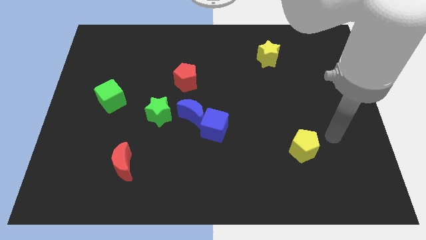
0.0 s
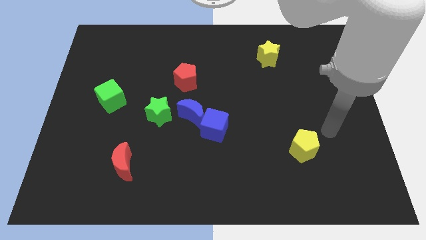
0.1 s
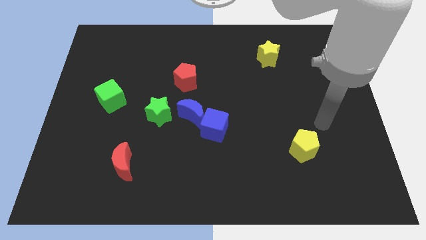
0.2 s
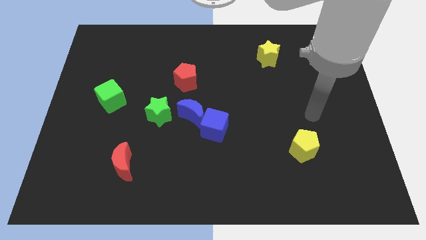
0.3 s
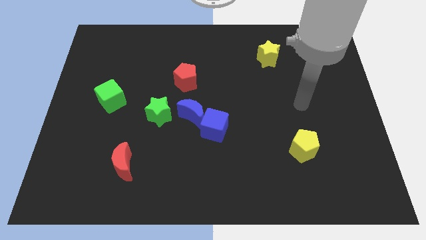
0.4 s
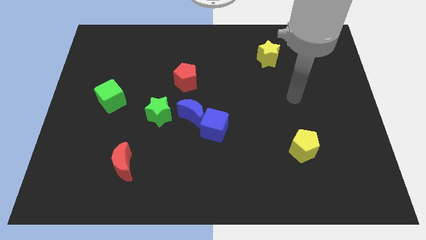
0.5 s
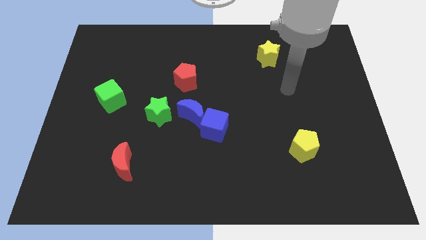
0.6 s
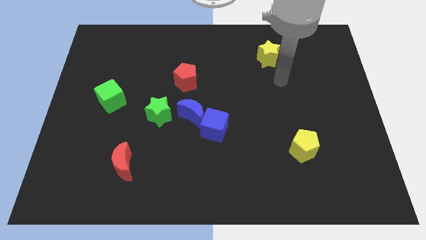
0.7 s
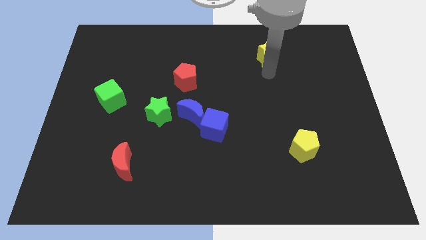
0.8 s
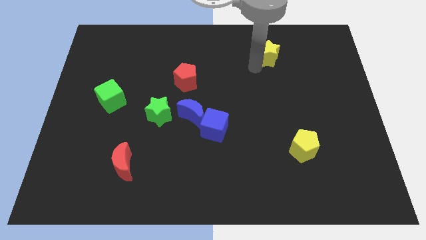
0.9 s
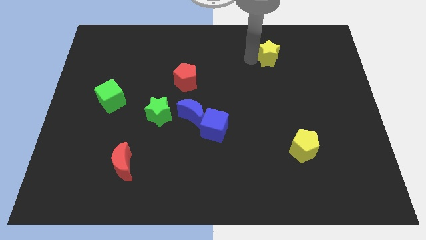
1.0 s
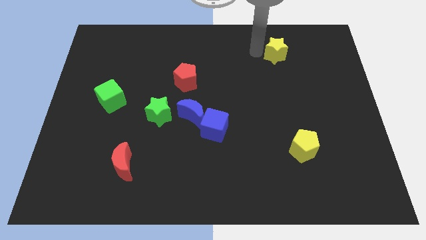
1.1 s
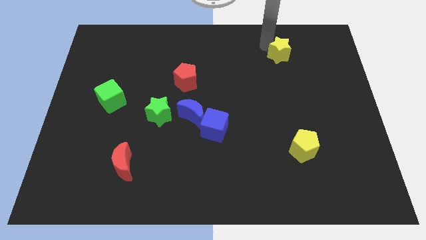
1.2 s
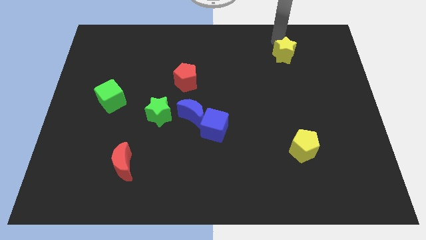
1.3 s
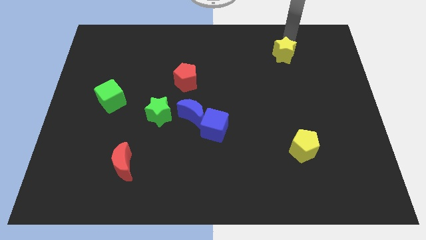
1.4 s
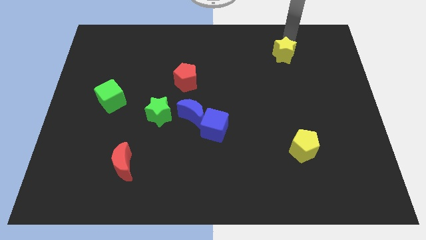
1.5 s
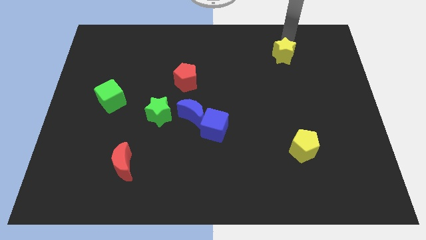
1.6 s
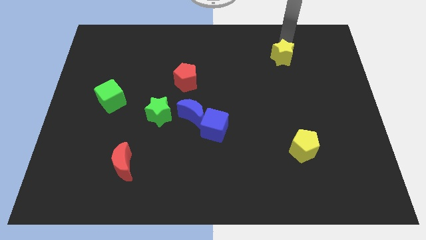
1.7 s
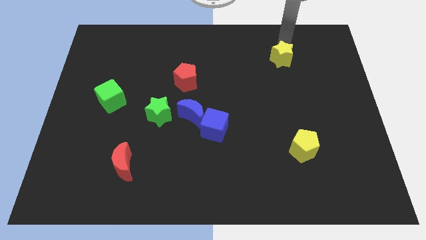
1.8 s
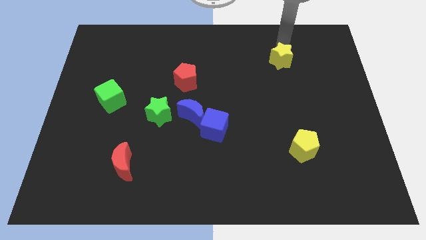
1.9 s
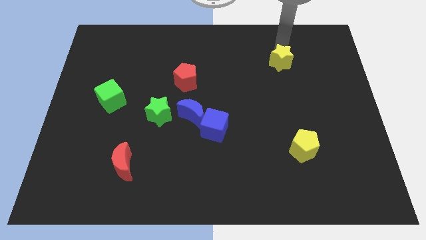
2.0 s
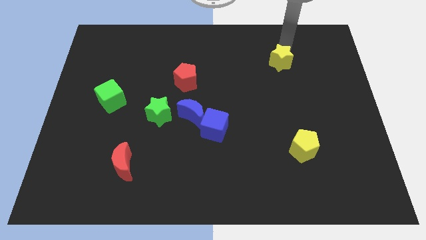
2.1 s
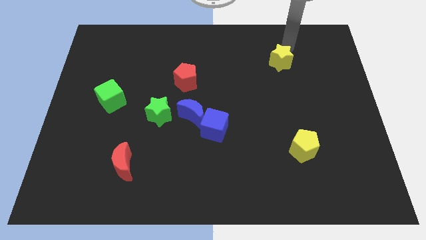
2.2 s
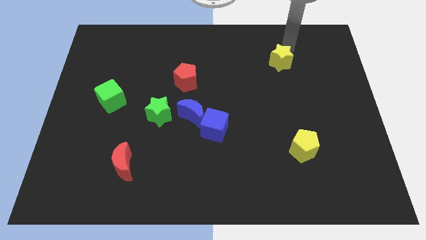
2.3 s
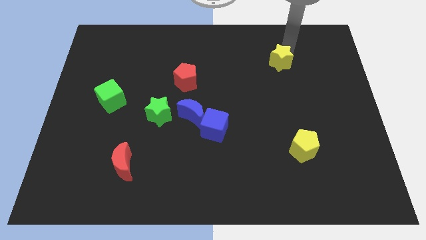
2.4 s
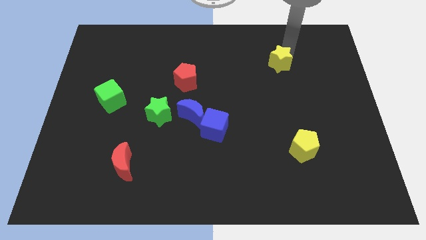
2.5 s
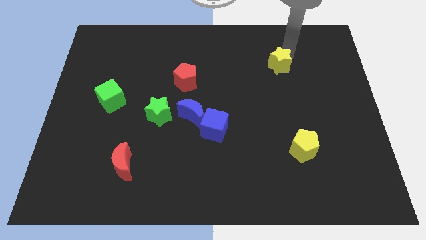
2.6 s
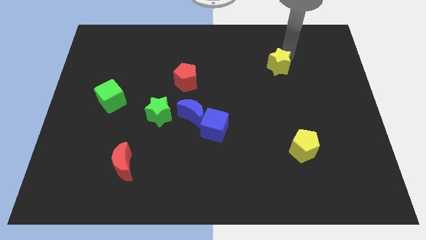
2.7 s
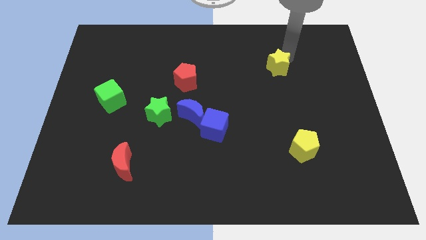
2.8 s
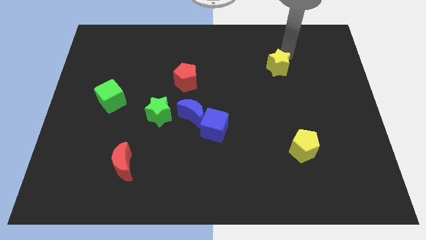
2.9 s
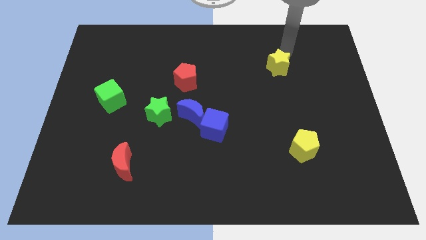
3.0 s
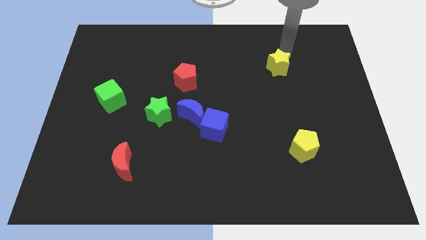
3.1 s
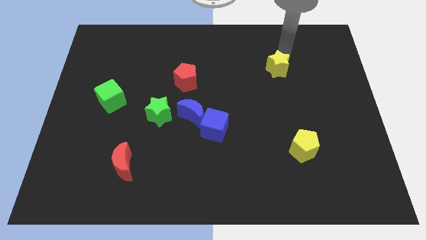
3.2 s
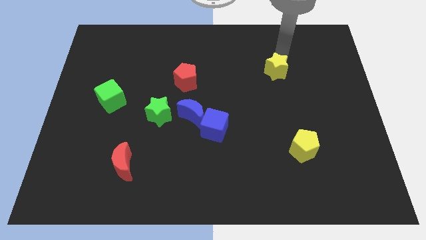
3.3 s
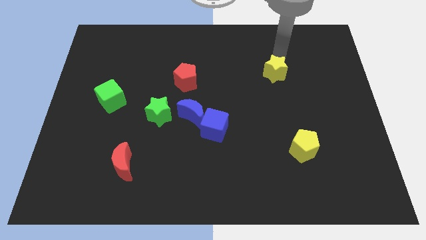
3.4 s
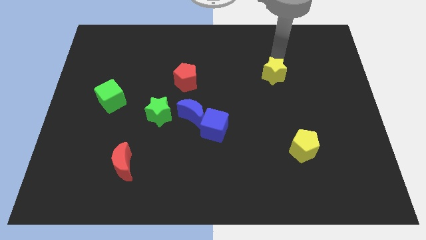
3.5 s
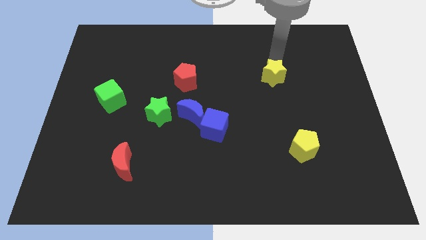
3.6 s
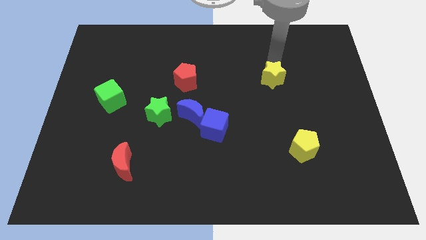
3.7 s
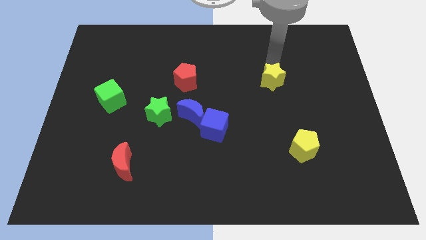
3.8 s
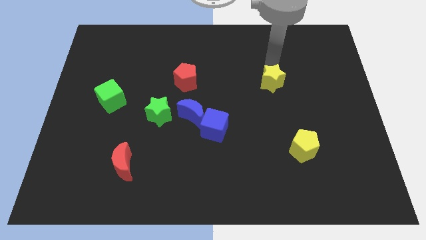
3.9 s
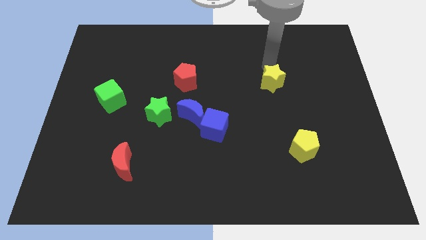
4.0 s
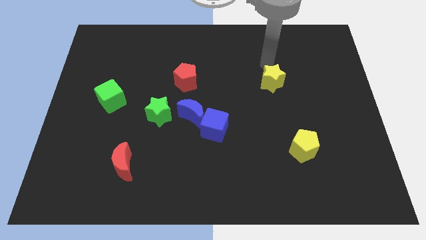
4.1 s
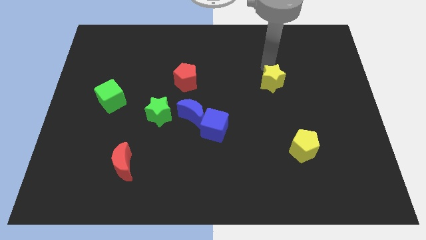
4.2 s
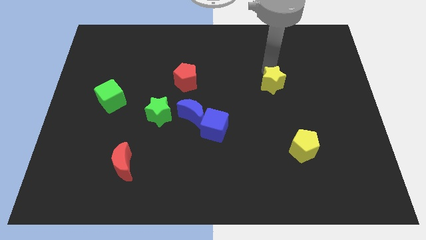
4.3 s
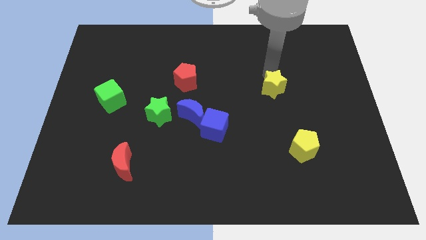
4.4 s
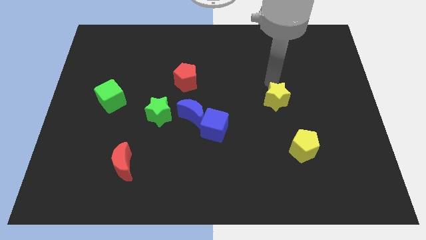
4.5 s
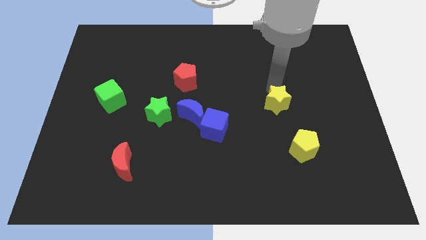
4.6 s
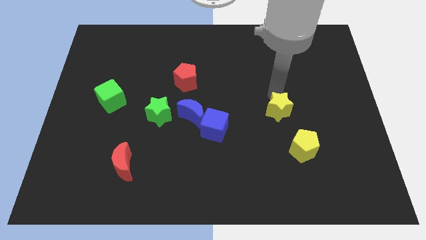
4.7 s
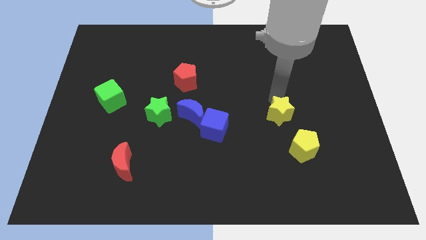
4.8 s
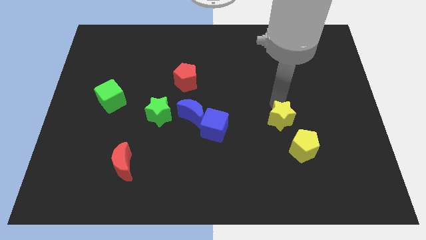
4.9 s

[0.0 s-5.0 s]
push the yellow star down

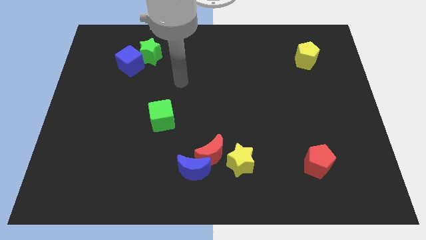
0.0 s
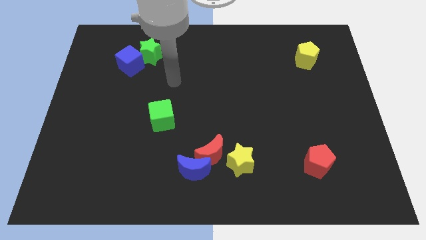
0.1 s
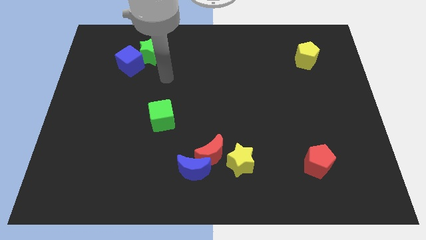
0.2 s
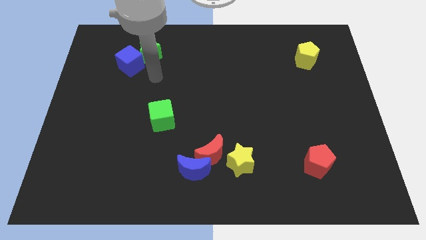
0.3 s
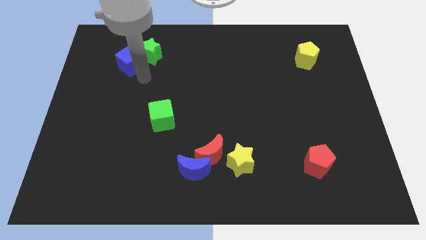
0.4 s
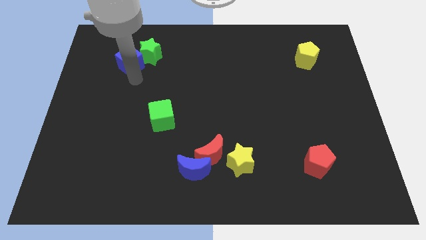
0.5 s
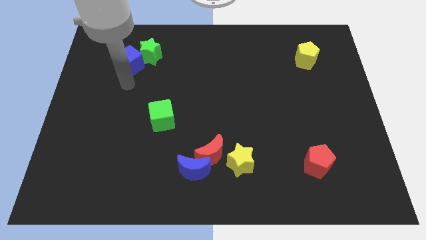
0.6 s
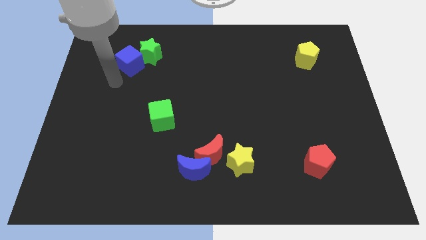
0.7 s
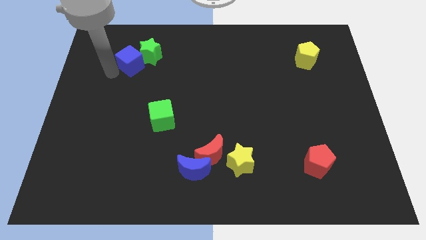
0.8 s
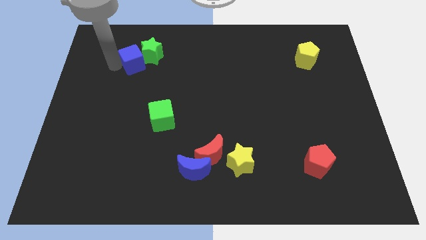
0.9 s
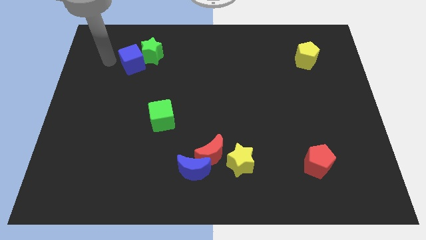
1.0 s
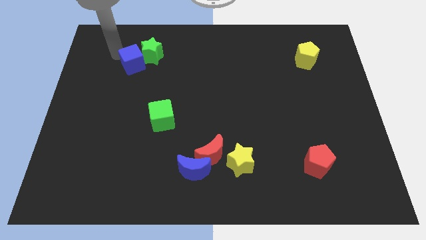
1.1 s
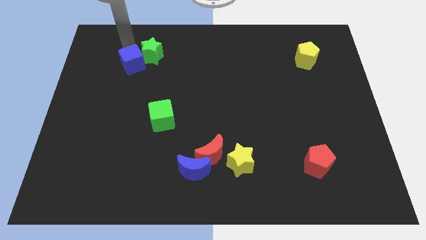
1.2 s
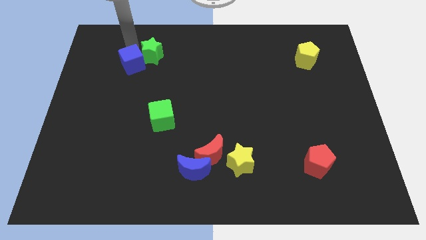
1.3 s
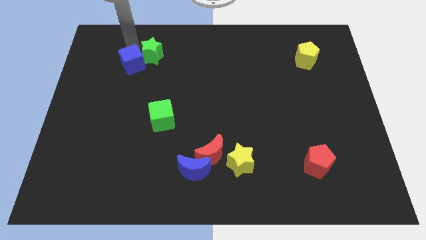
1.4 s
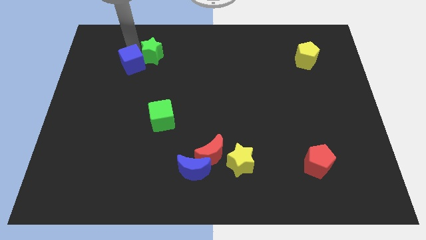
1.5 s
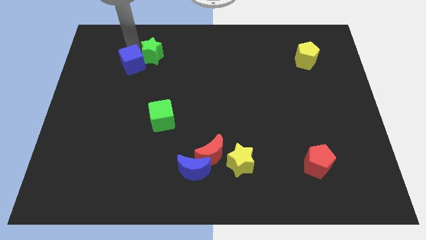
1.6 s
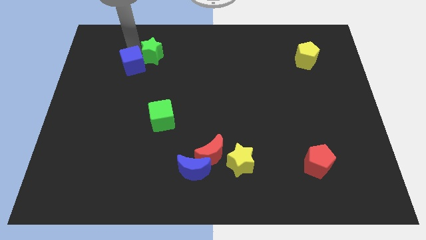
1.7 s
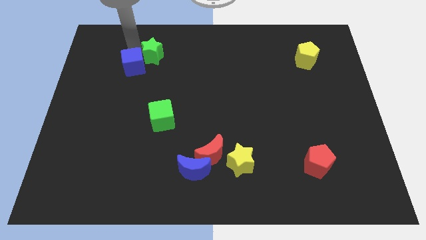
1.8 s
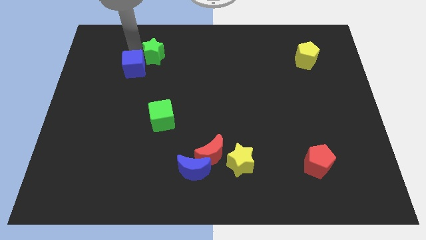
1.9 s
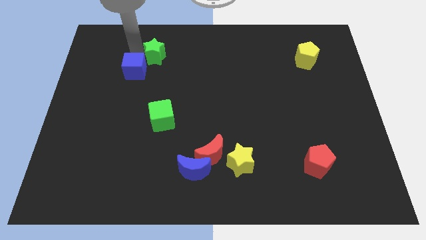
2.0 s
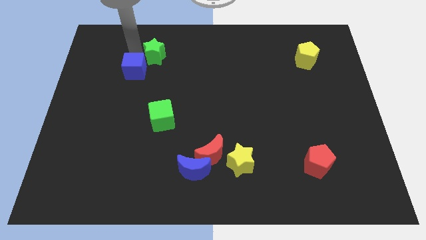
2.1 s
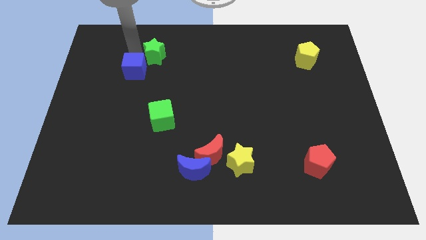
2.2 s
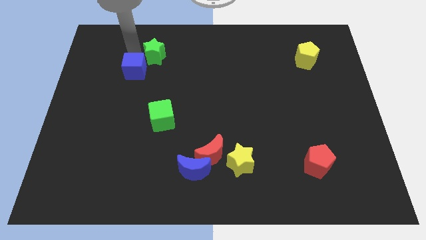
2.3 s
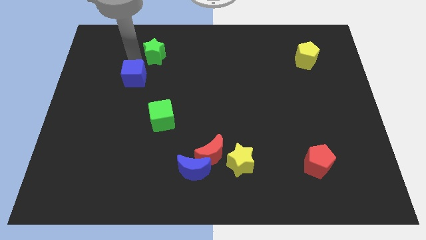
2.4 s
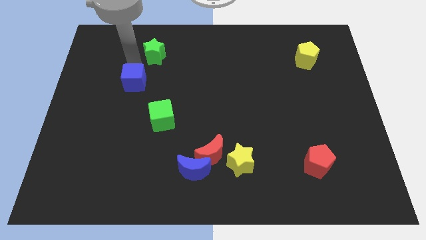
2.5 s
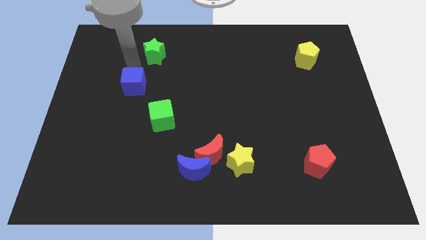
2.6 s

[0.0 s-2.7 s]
push the blue cube down a bit
